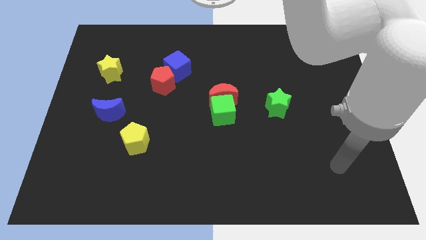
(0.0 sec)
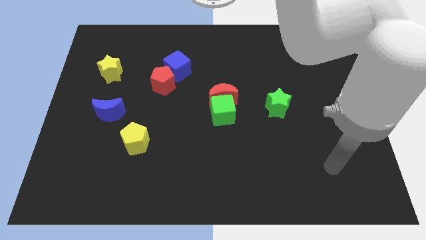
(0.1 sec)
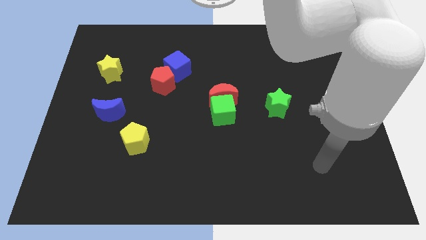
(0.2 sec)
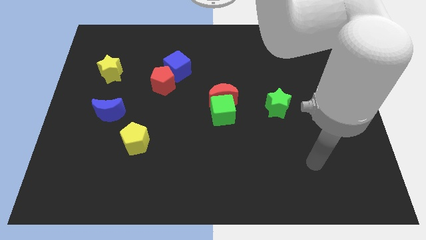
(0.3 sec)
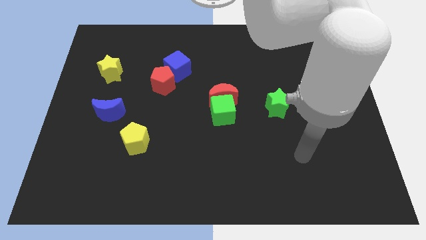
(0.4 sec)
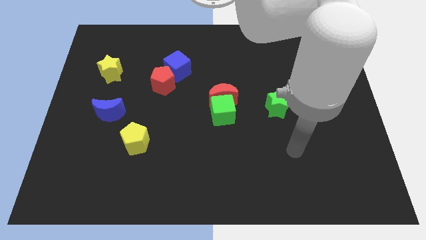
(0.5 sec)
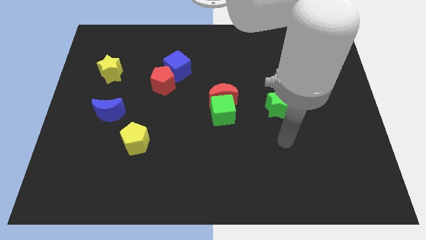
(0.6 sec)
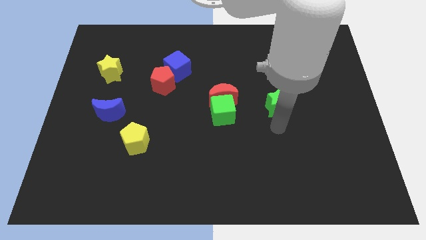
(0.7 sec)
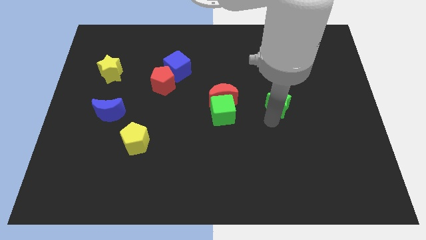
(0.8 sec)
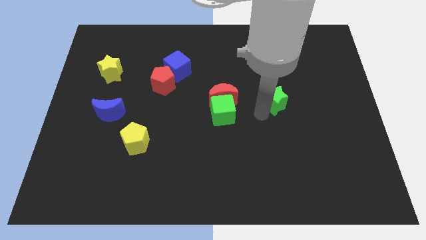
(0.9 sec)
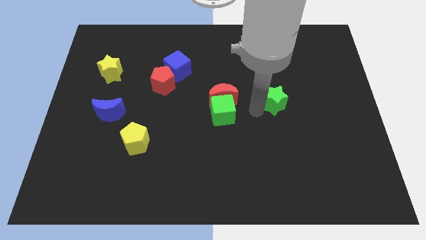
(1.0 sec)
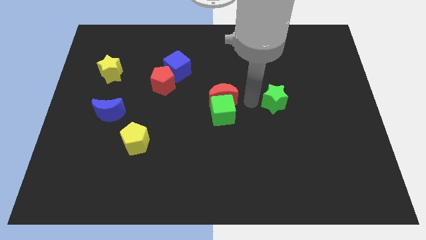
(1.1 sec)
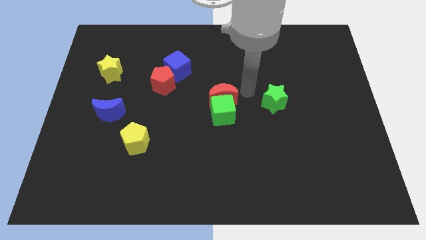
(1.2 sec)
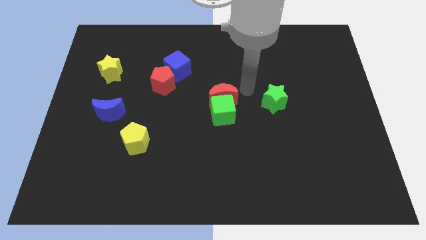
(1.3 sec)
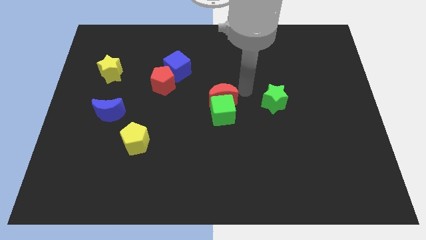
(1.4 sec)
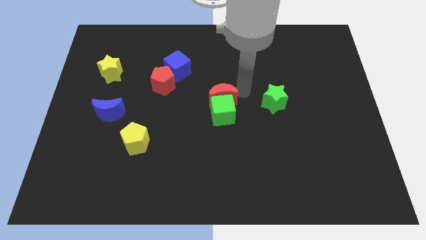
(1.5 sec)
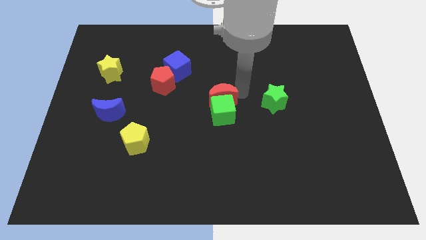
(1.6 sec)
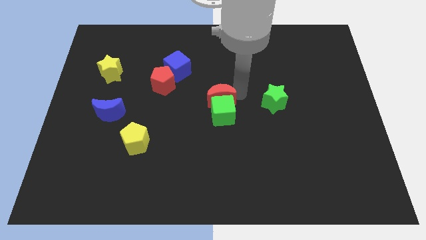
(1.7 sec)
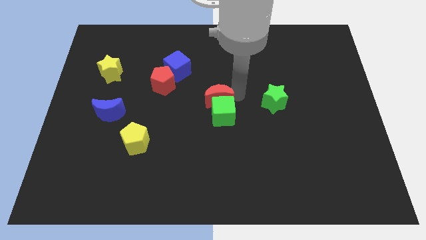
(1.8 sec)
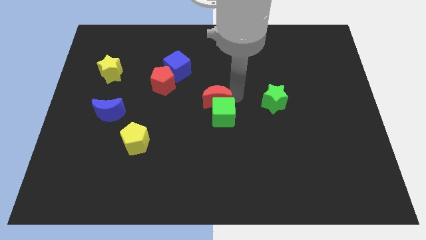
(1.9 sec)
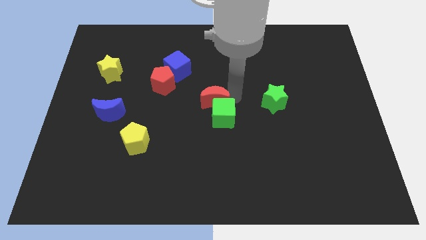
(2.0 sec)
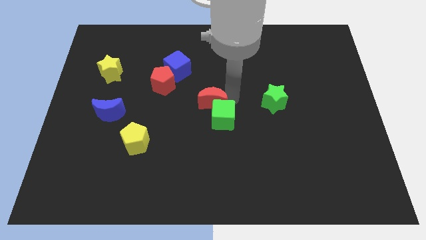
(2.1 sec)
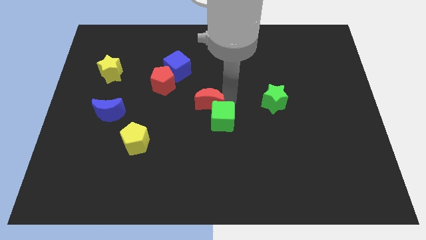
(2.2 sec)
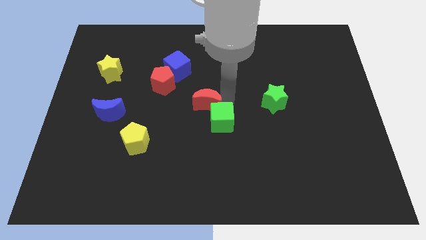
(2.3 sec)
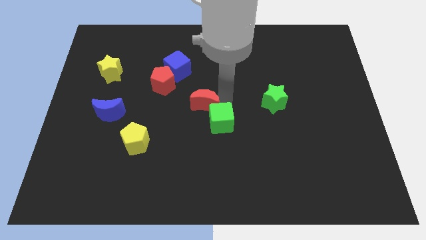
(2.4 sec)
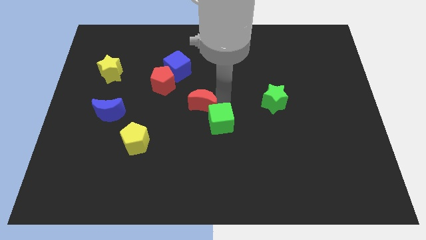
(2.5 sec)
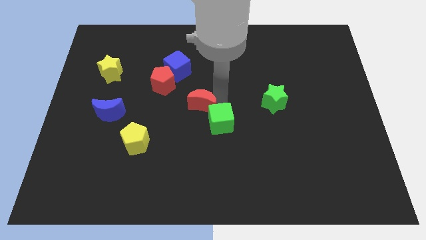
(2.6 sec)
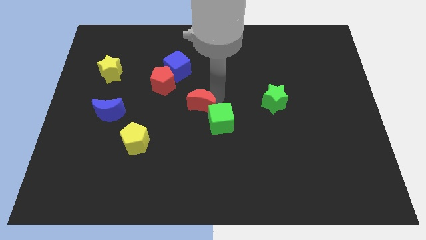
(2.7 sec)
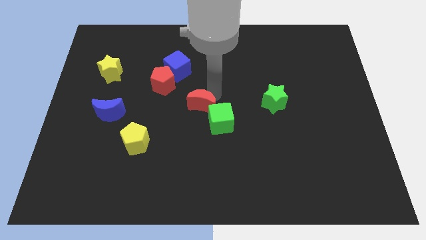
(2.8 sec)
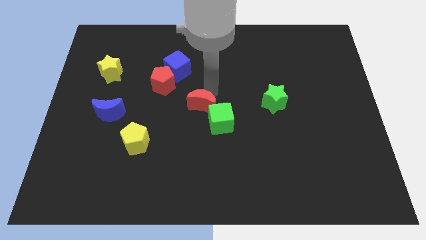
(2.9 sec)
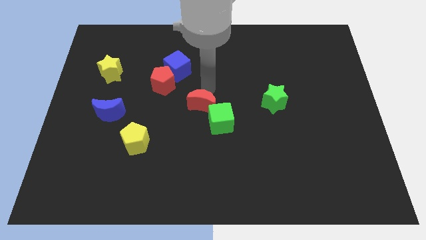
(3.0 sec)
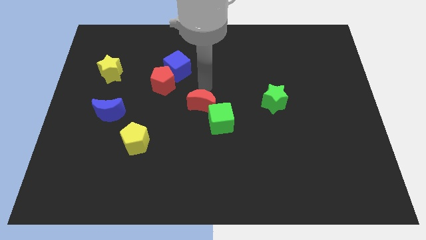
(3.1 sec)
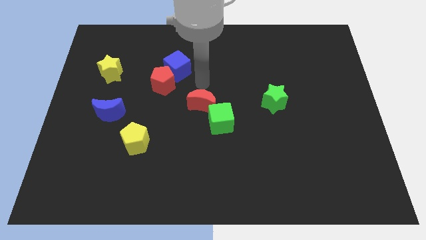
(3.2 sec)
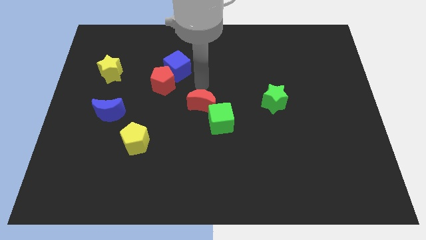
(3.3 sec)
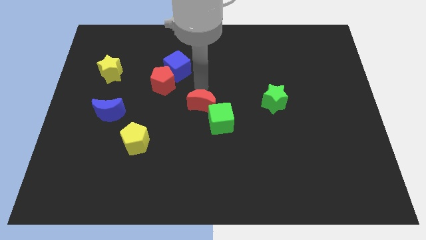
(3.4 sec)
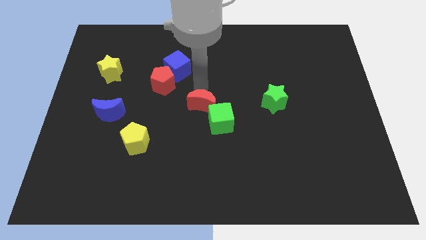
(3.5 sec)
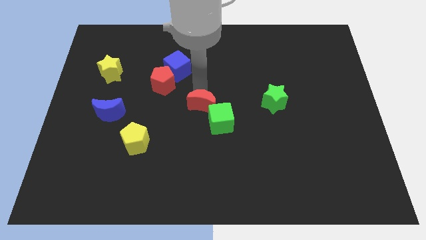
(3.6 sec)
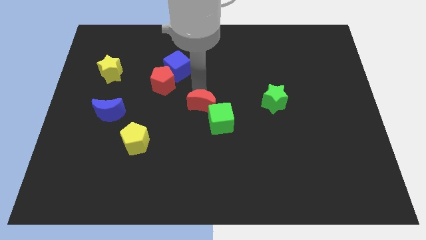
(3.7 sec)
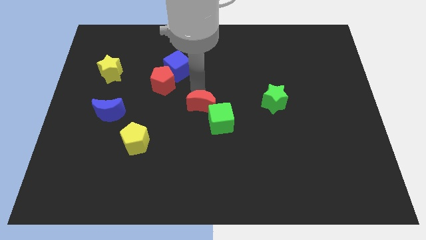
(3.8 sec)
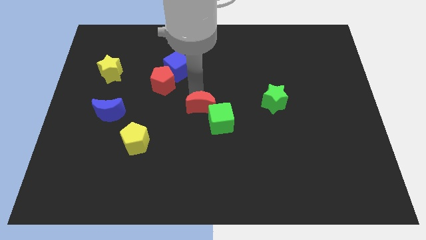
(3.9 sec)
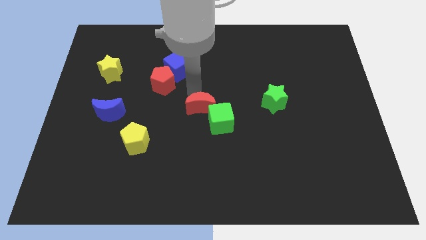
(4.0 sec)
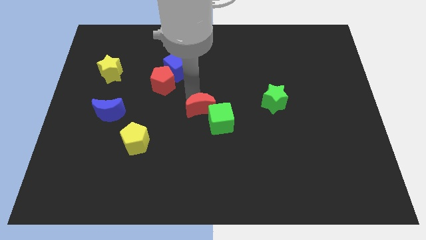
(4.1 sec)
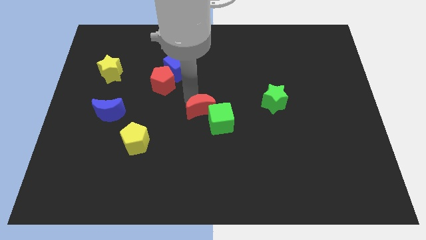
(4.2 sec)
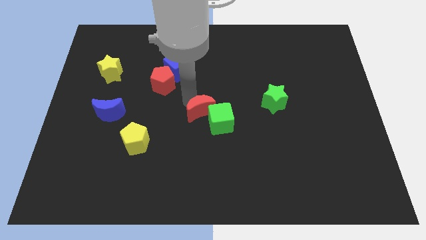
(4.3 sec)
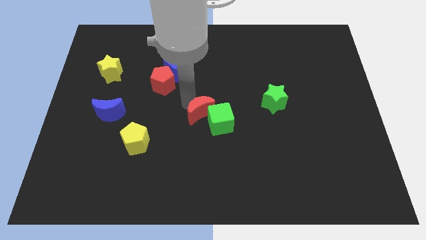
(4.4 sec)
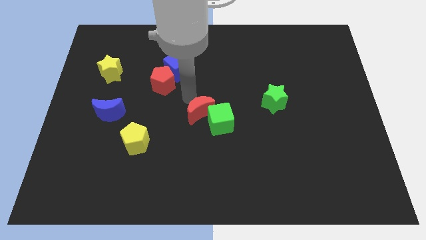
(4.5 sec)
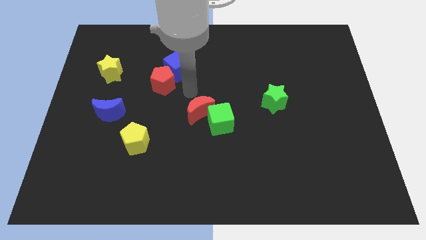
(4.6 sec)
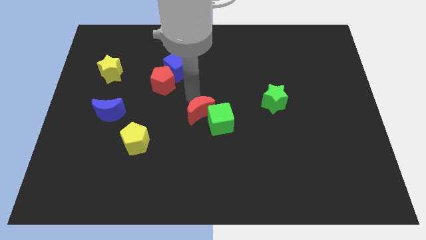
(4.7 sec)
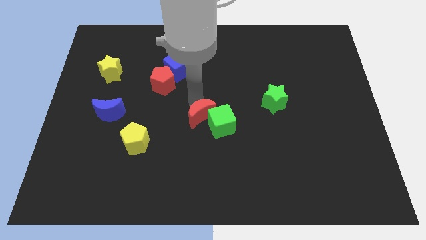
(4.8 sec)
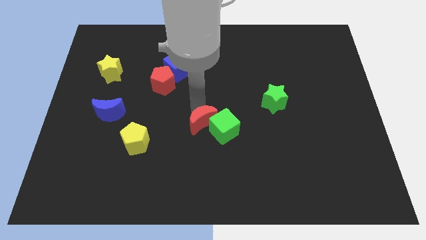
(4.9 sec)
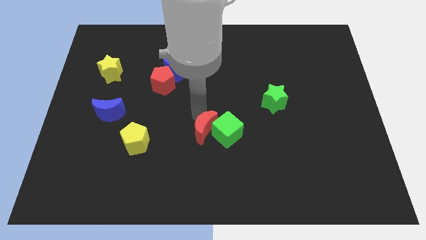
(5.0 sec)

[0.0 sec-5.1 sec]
slightly push the red moon down

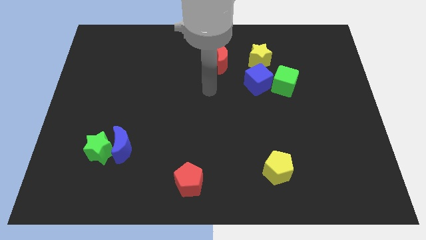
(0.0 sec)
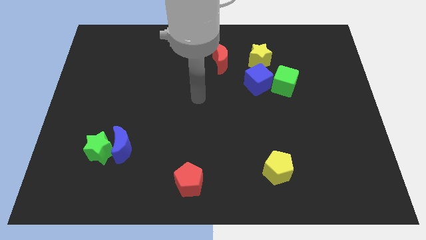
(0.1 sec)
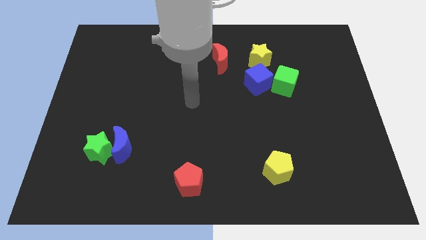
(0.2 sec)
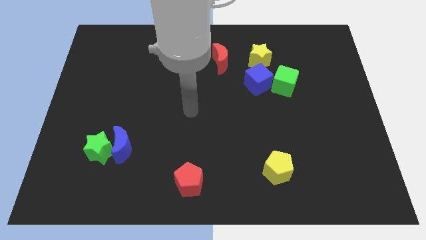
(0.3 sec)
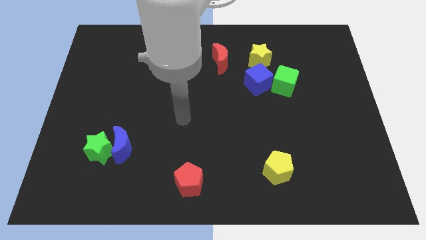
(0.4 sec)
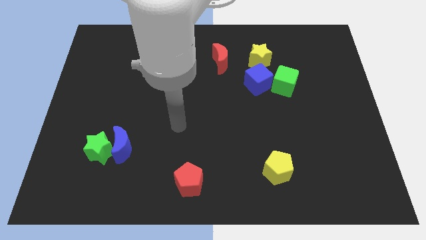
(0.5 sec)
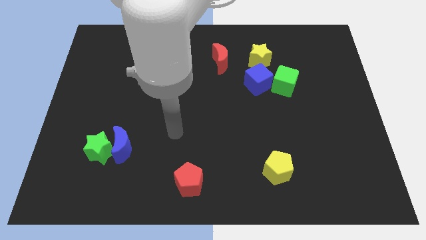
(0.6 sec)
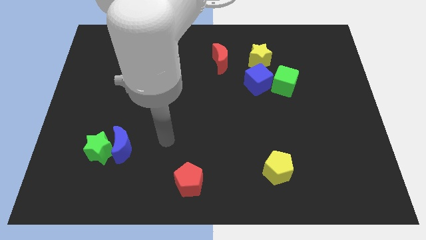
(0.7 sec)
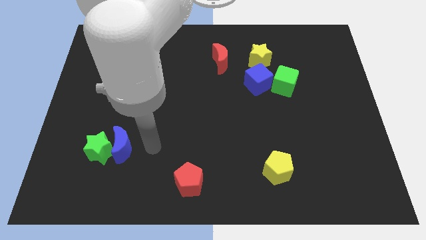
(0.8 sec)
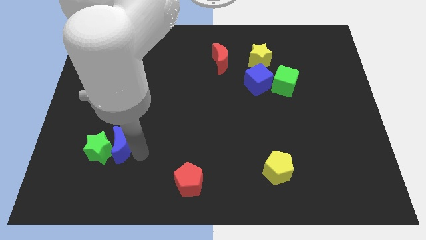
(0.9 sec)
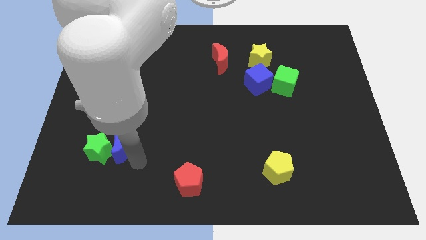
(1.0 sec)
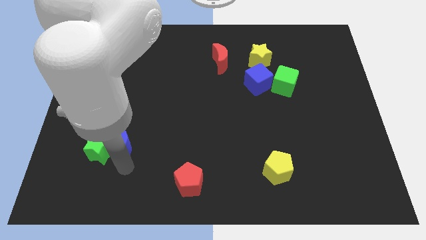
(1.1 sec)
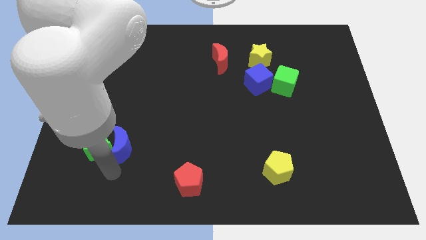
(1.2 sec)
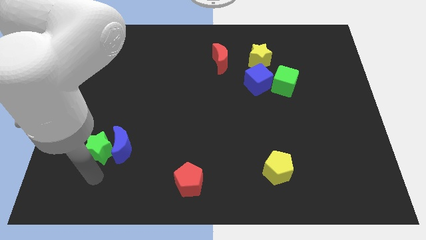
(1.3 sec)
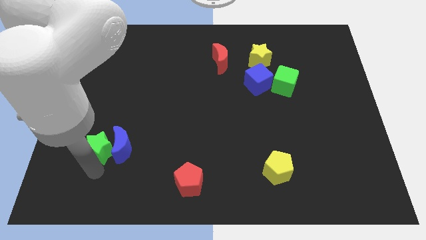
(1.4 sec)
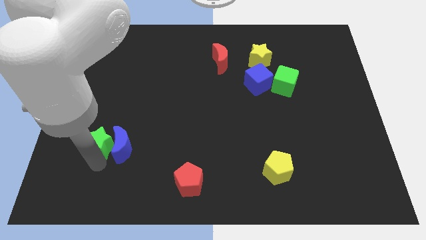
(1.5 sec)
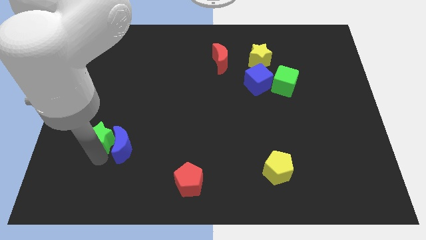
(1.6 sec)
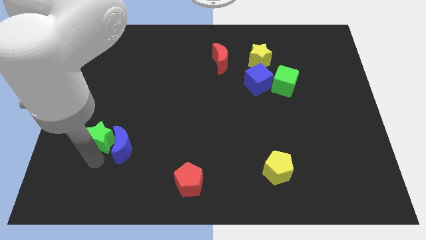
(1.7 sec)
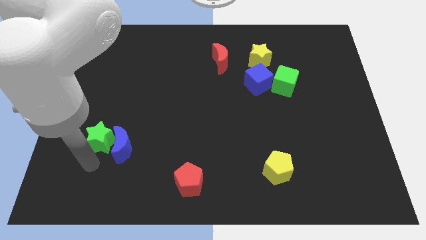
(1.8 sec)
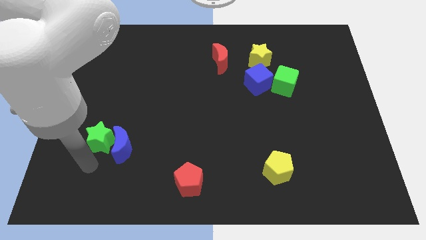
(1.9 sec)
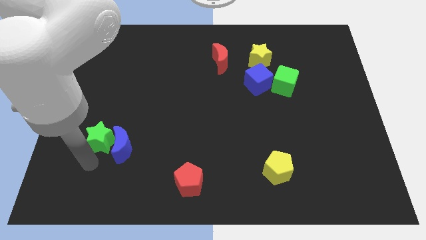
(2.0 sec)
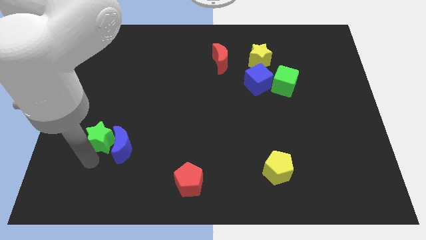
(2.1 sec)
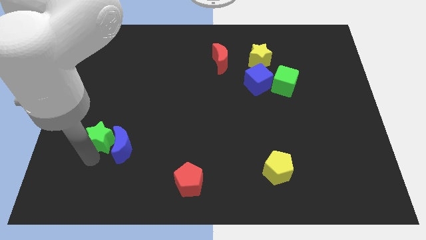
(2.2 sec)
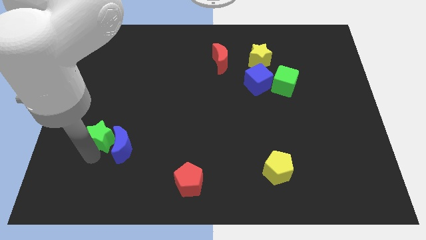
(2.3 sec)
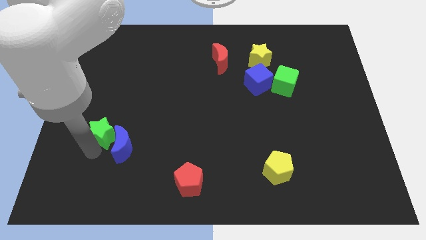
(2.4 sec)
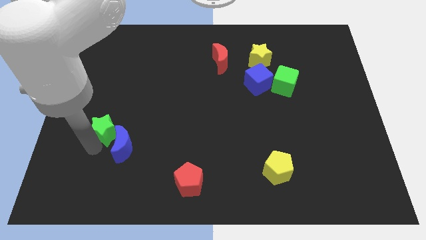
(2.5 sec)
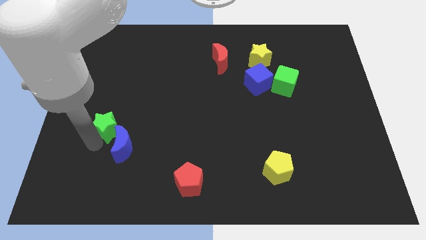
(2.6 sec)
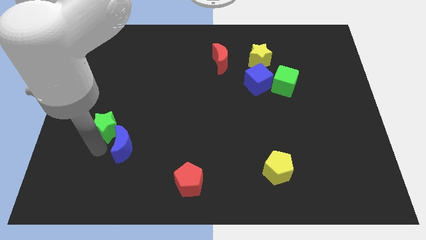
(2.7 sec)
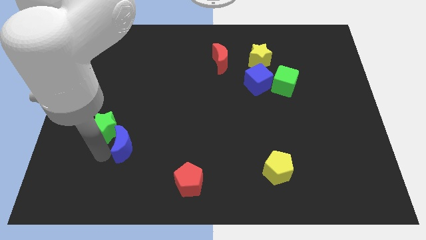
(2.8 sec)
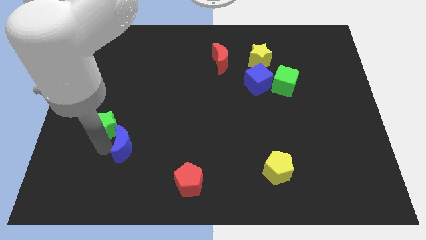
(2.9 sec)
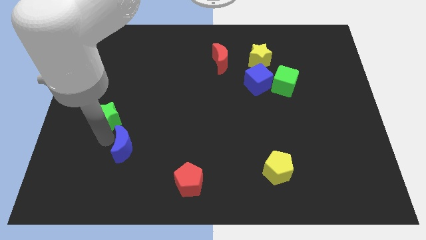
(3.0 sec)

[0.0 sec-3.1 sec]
slightly push the green star up
